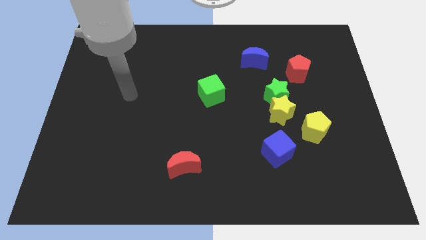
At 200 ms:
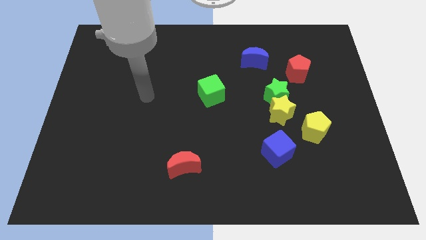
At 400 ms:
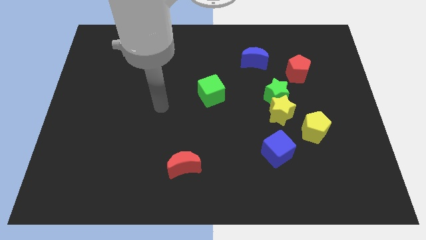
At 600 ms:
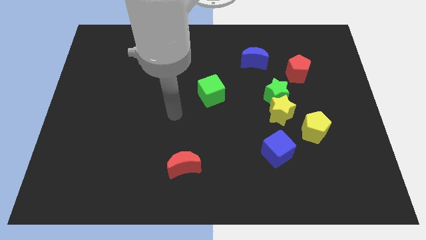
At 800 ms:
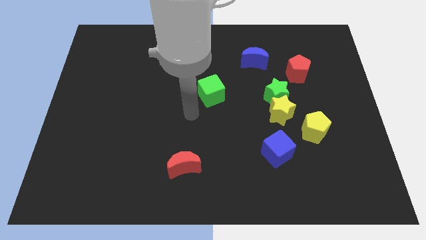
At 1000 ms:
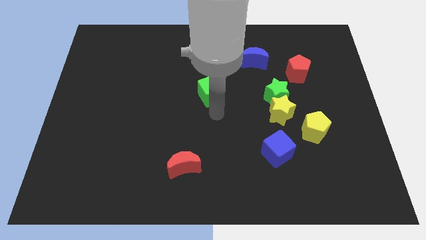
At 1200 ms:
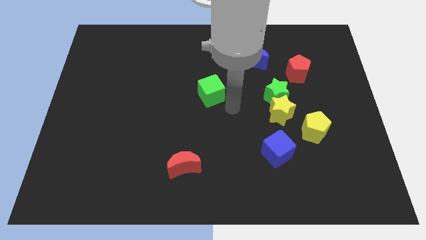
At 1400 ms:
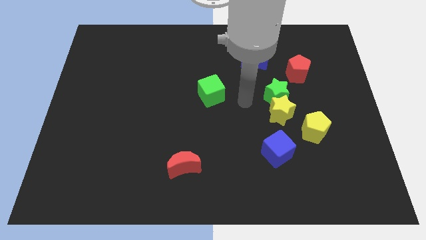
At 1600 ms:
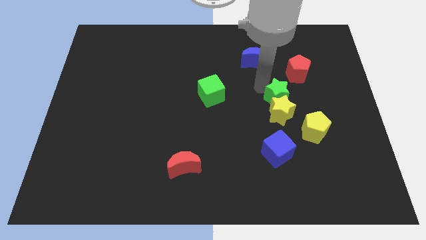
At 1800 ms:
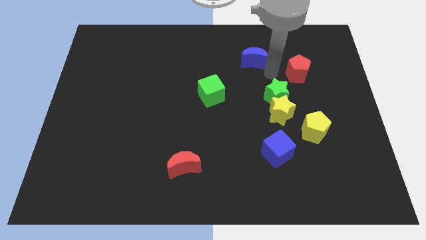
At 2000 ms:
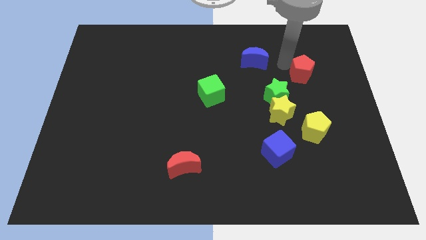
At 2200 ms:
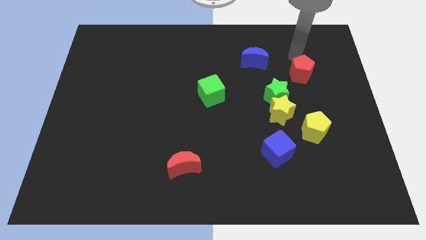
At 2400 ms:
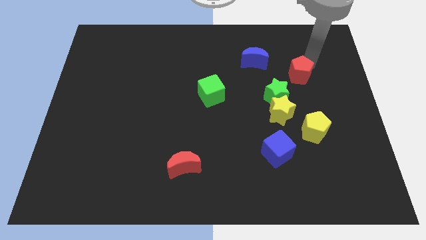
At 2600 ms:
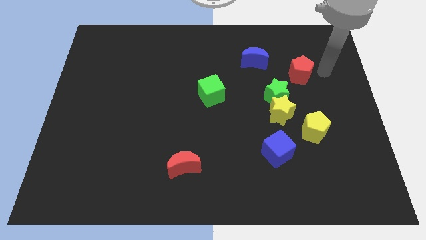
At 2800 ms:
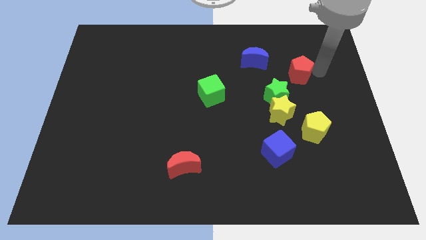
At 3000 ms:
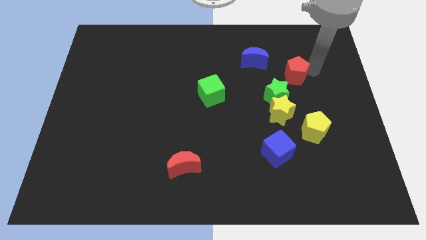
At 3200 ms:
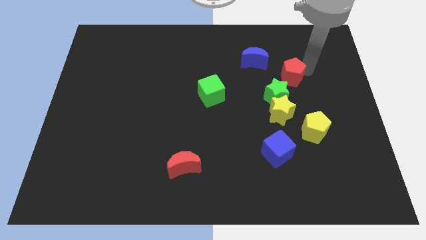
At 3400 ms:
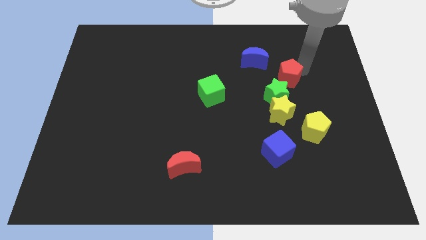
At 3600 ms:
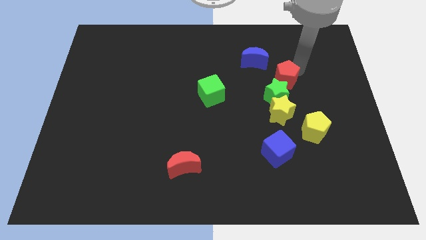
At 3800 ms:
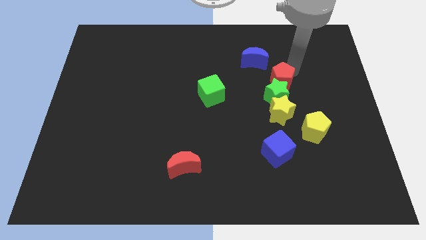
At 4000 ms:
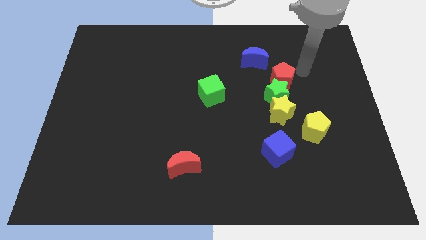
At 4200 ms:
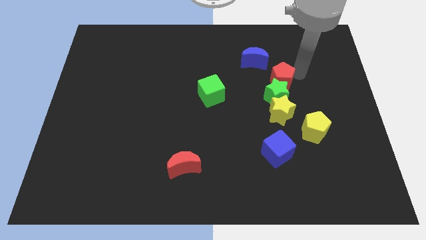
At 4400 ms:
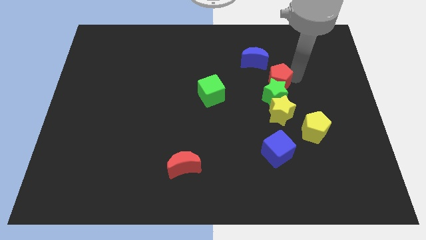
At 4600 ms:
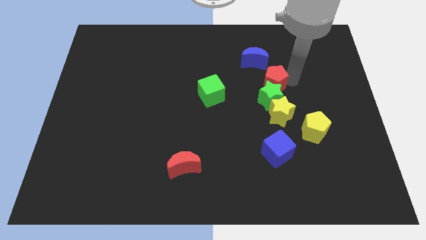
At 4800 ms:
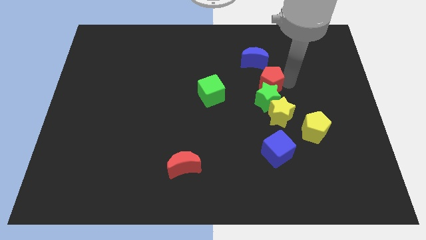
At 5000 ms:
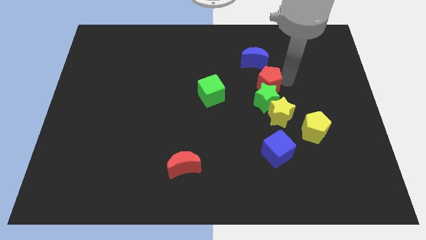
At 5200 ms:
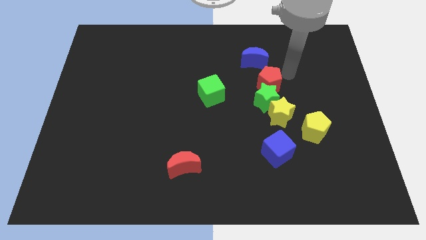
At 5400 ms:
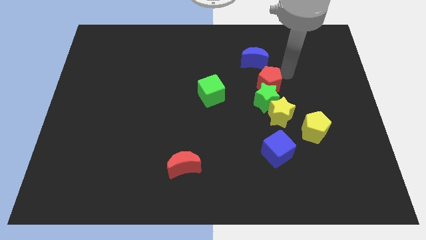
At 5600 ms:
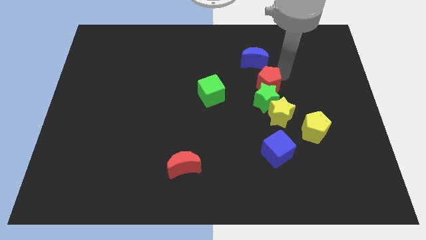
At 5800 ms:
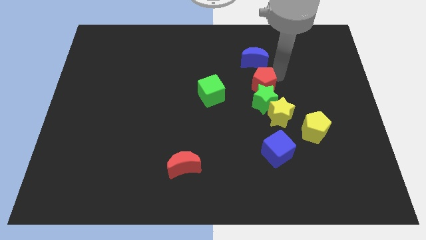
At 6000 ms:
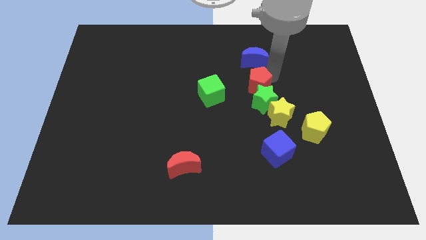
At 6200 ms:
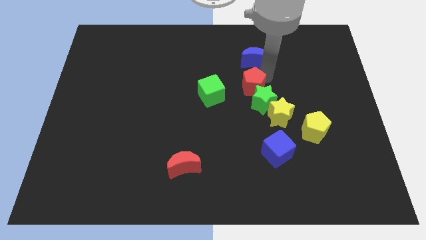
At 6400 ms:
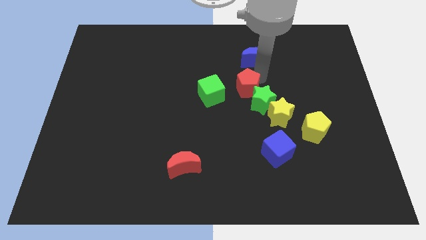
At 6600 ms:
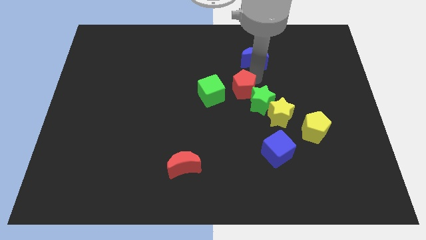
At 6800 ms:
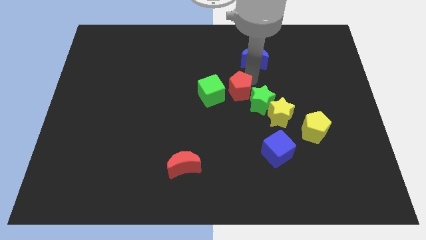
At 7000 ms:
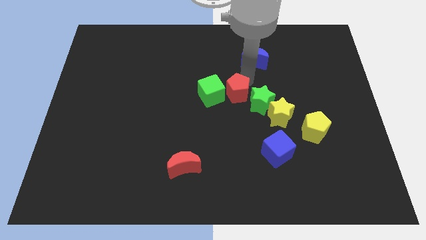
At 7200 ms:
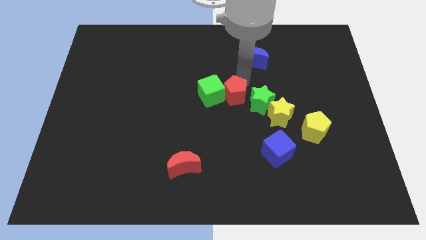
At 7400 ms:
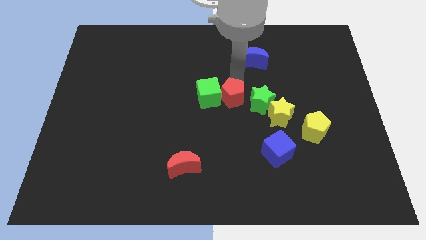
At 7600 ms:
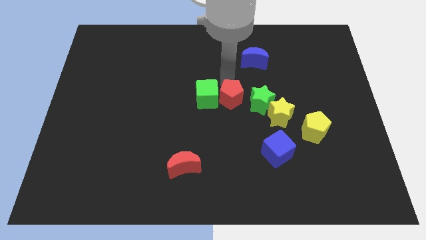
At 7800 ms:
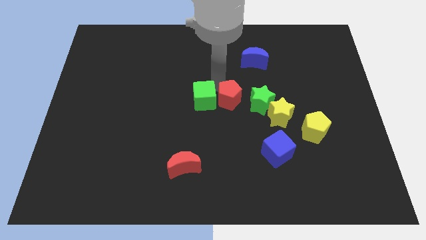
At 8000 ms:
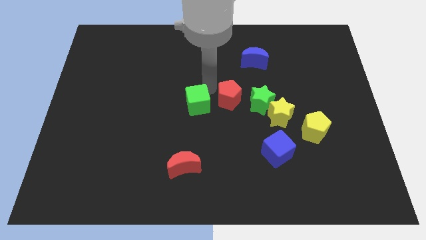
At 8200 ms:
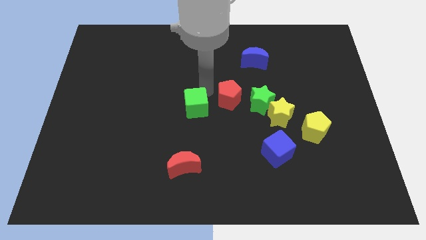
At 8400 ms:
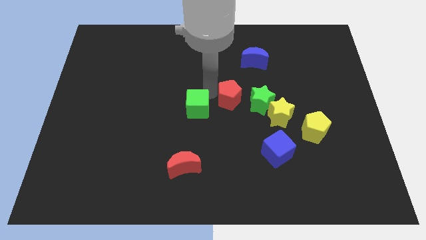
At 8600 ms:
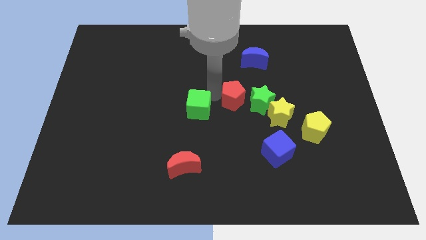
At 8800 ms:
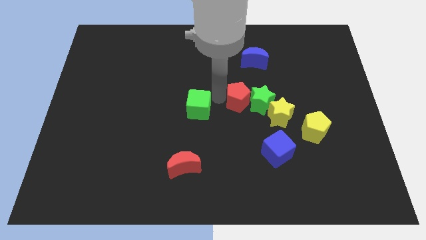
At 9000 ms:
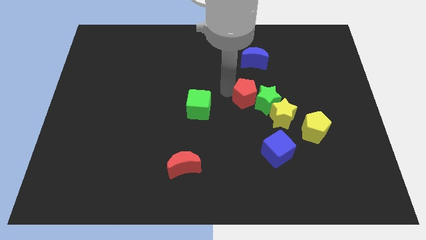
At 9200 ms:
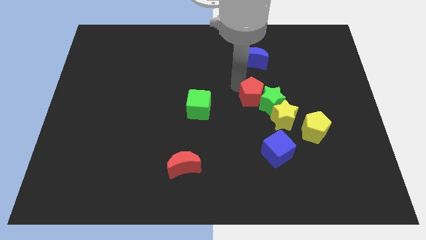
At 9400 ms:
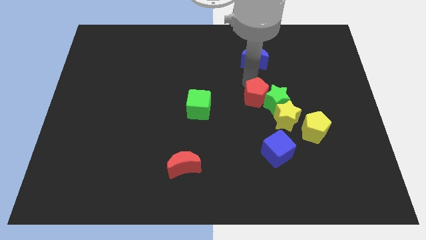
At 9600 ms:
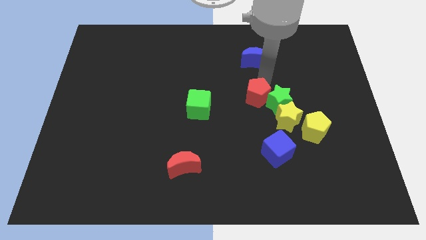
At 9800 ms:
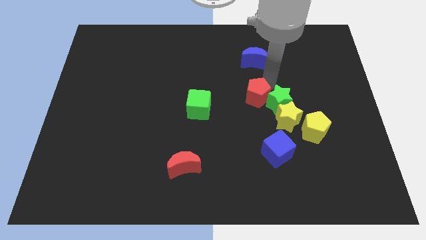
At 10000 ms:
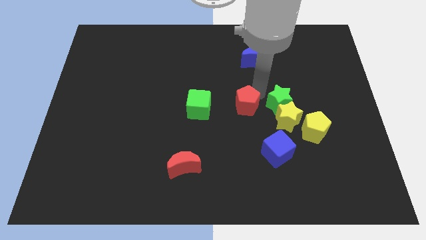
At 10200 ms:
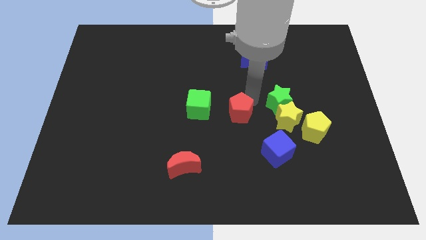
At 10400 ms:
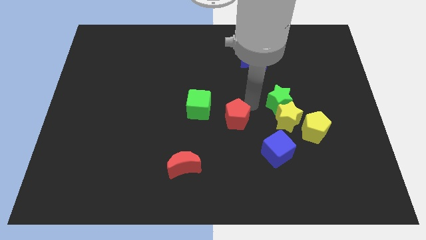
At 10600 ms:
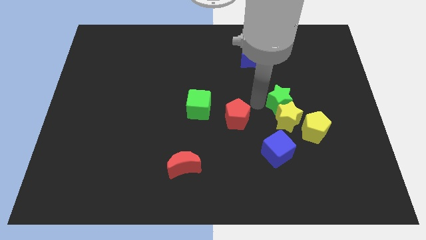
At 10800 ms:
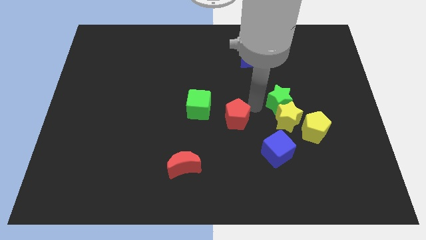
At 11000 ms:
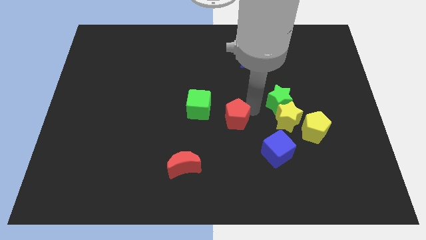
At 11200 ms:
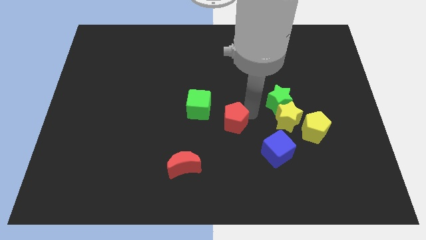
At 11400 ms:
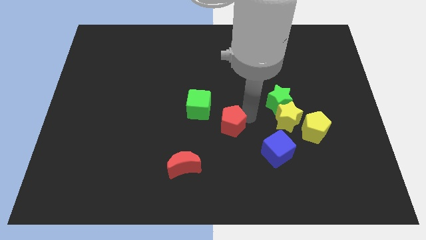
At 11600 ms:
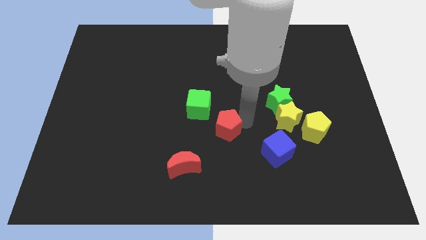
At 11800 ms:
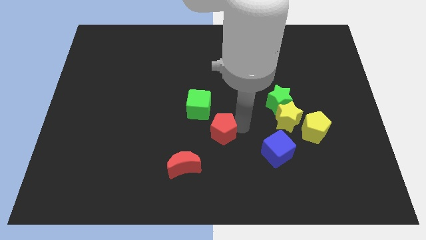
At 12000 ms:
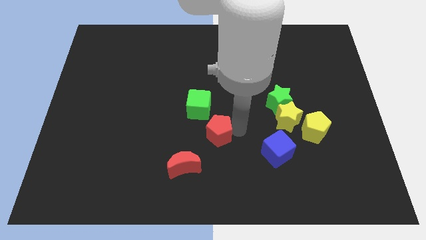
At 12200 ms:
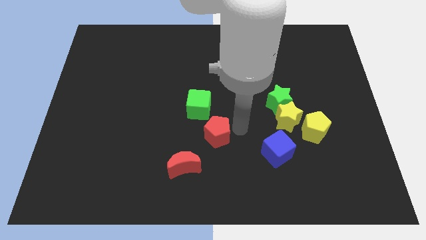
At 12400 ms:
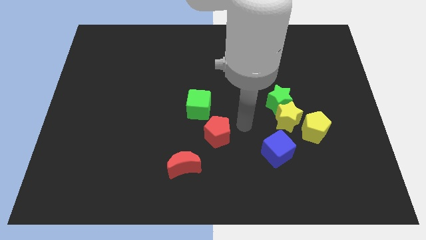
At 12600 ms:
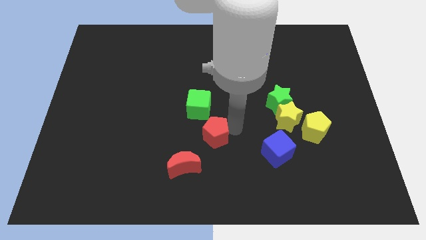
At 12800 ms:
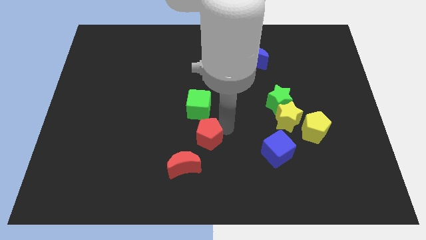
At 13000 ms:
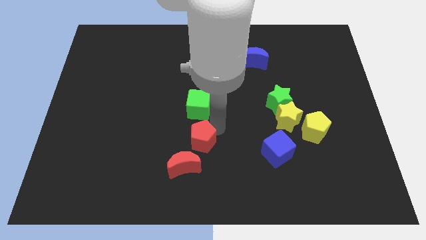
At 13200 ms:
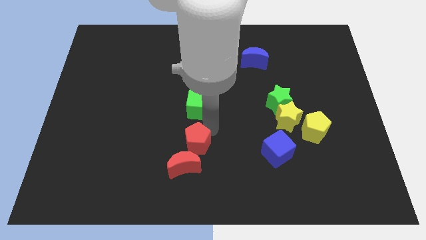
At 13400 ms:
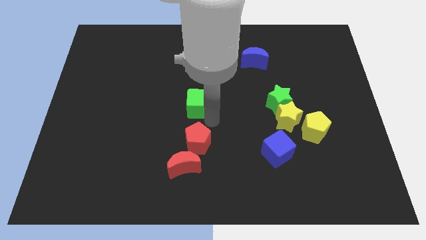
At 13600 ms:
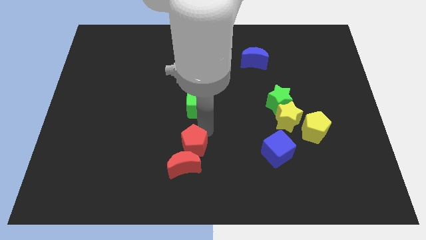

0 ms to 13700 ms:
slide the red pentagon close to the red moon

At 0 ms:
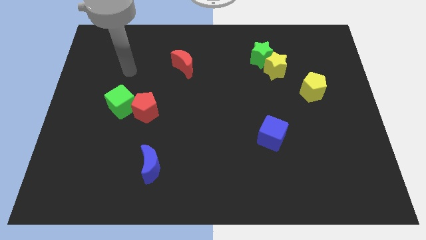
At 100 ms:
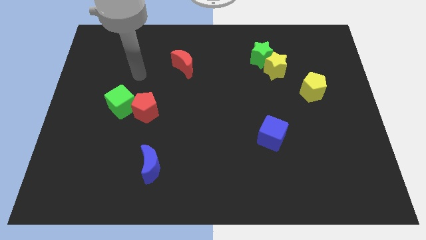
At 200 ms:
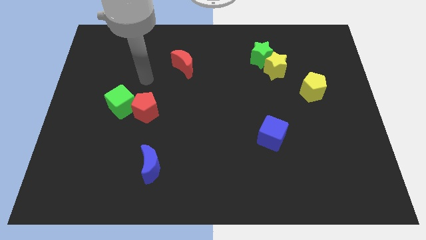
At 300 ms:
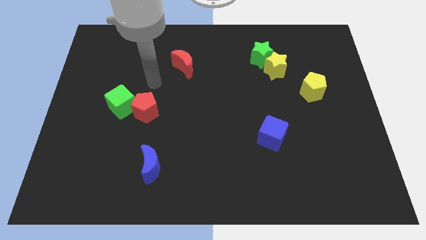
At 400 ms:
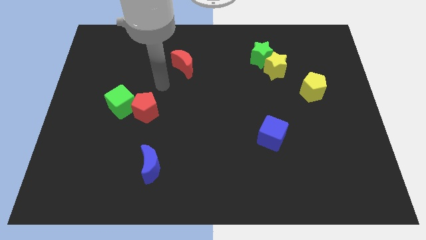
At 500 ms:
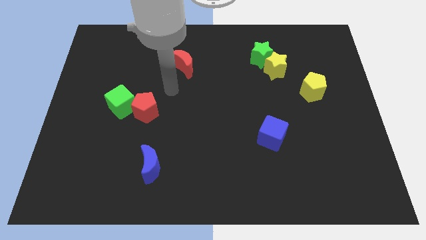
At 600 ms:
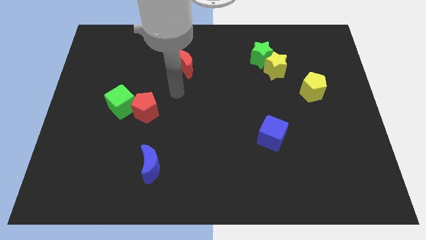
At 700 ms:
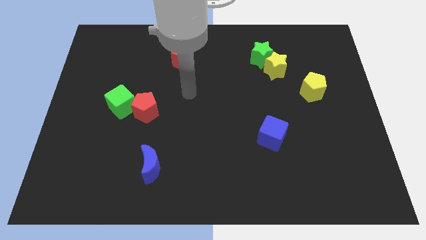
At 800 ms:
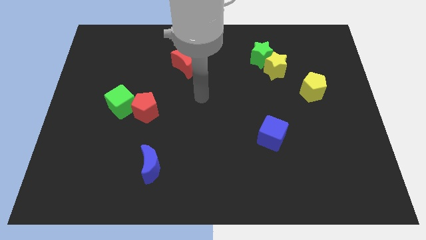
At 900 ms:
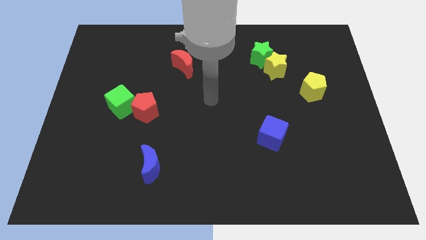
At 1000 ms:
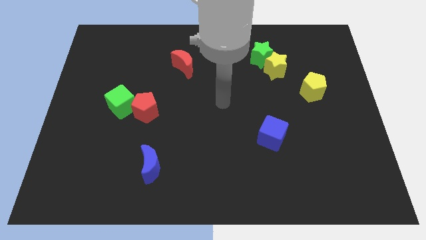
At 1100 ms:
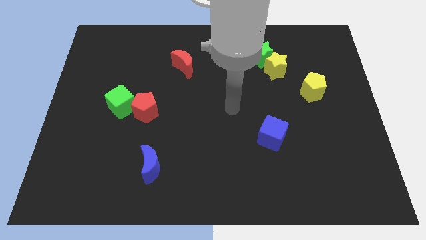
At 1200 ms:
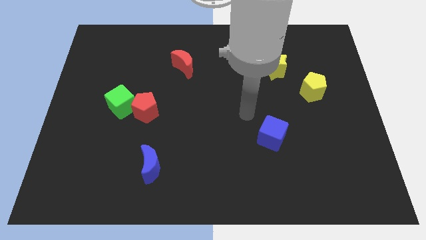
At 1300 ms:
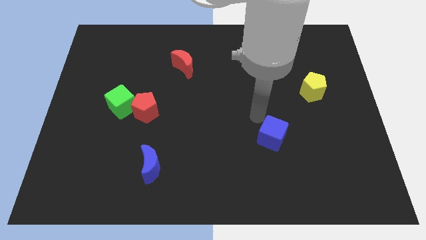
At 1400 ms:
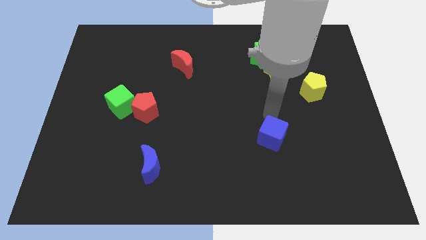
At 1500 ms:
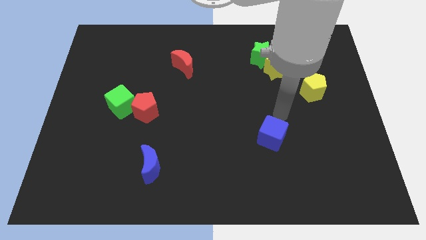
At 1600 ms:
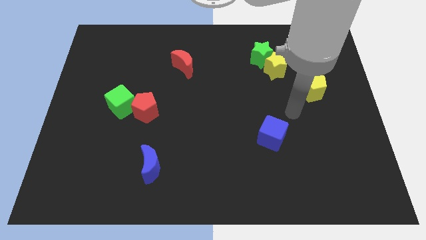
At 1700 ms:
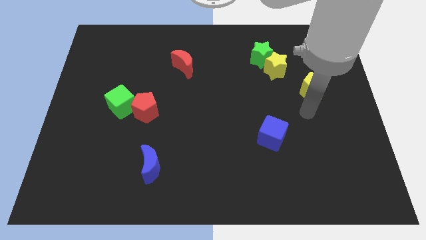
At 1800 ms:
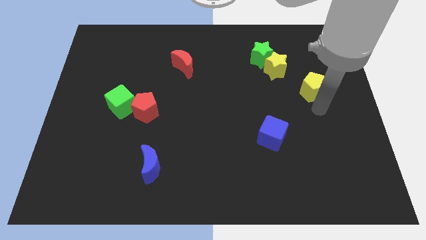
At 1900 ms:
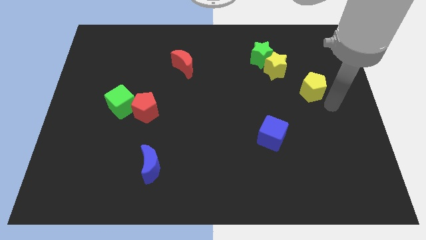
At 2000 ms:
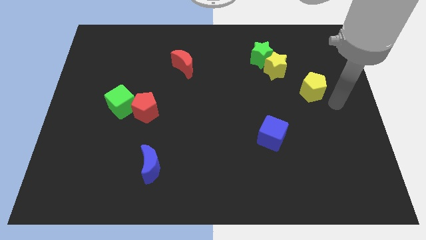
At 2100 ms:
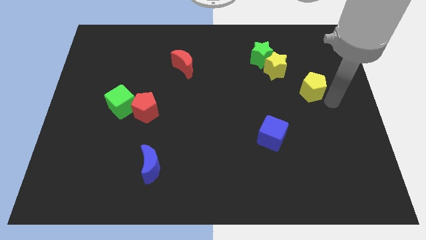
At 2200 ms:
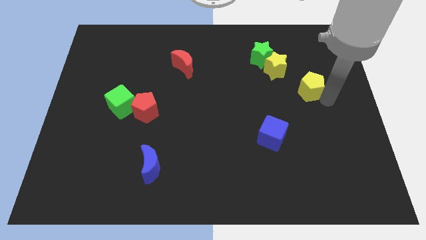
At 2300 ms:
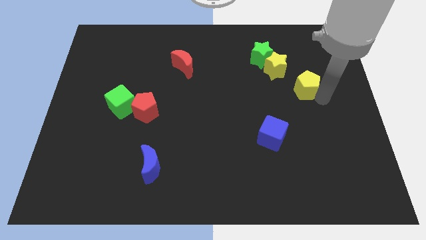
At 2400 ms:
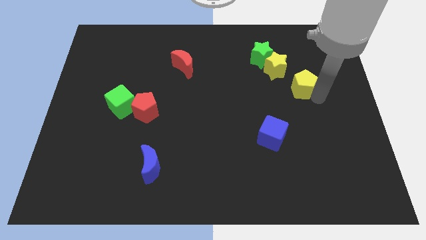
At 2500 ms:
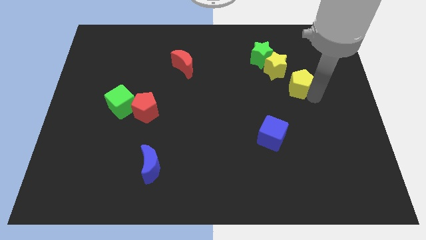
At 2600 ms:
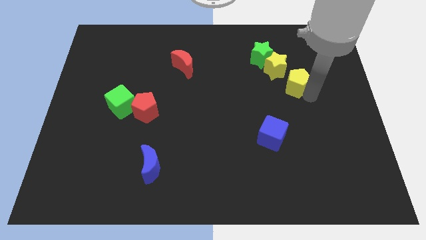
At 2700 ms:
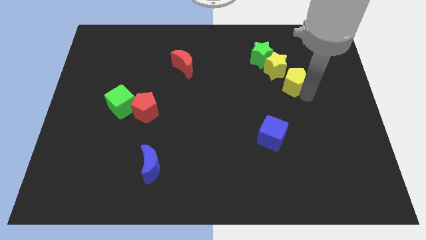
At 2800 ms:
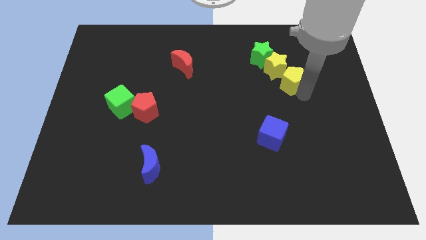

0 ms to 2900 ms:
push the yellow pentagon close to the yellow star
